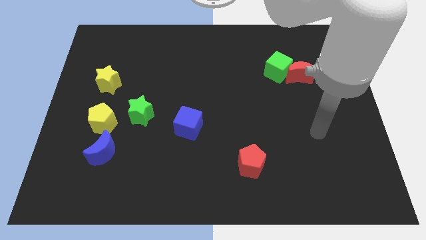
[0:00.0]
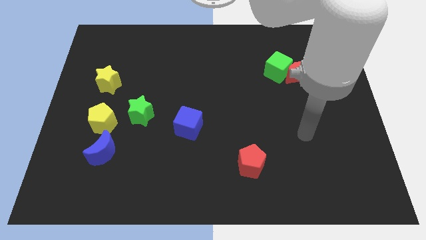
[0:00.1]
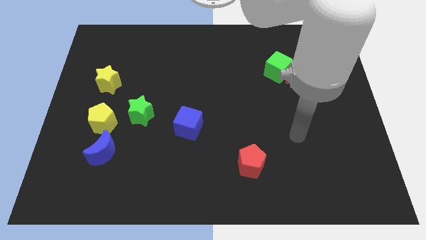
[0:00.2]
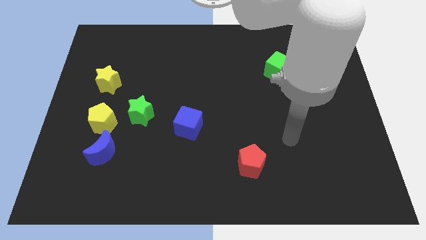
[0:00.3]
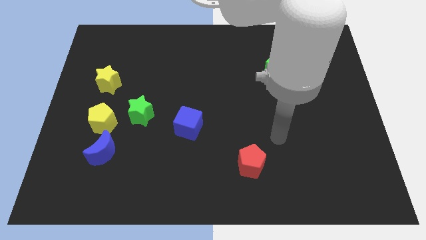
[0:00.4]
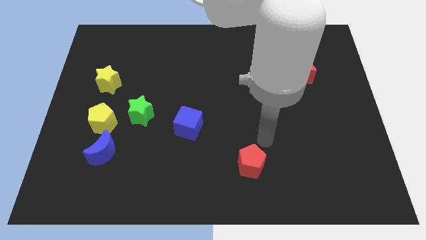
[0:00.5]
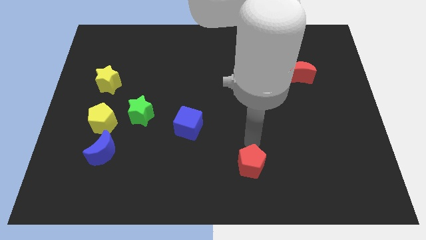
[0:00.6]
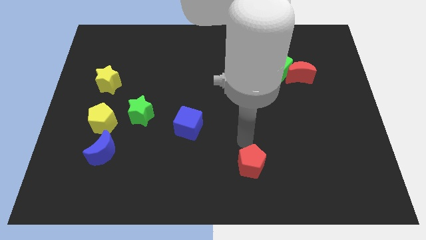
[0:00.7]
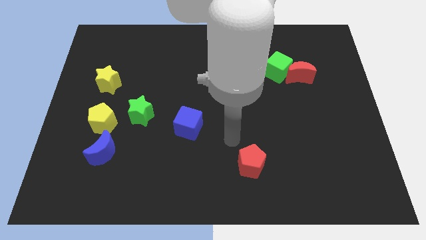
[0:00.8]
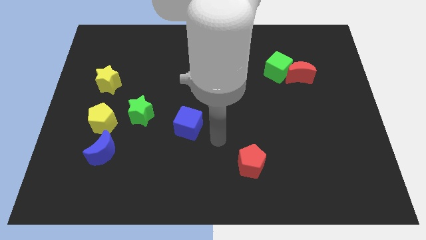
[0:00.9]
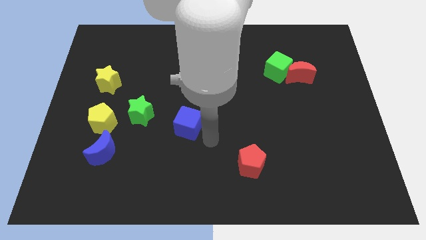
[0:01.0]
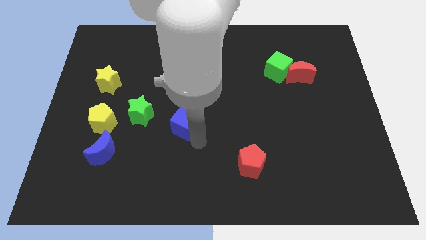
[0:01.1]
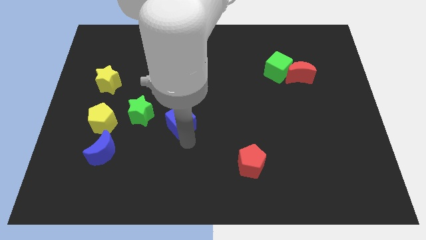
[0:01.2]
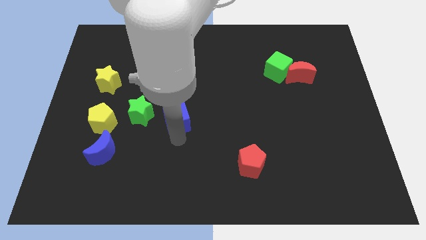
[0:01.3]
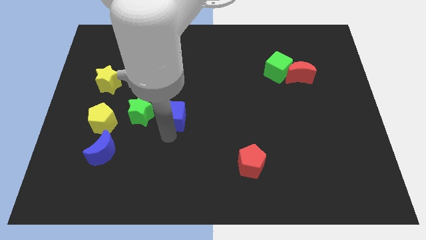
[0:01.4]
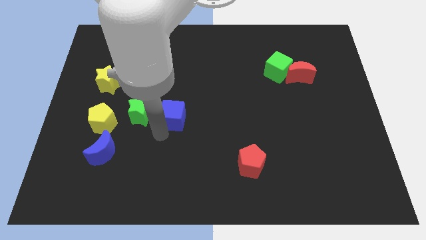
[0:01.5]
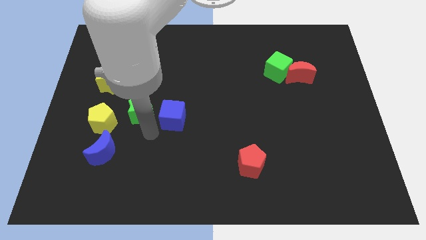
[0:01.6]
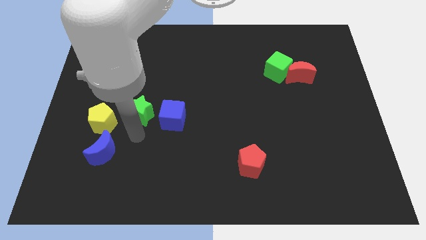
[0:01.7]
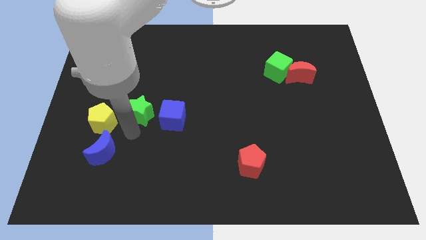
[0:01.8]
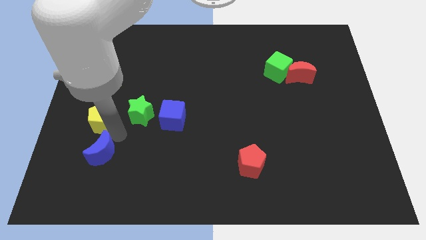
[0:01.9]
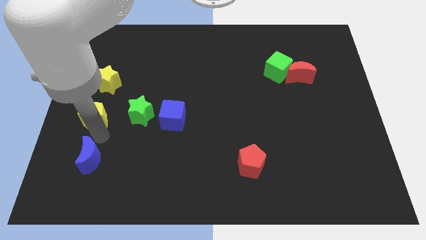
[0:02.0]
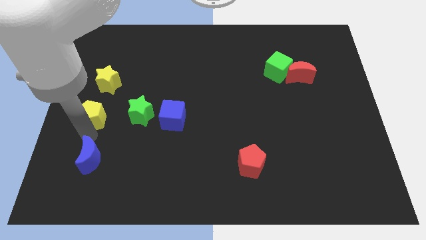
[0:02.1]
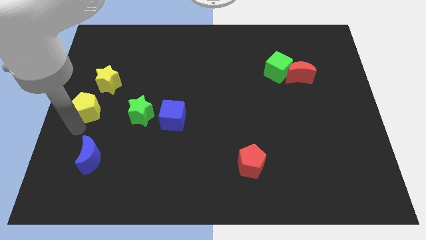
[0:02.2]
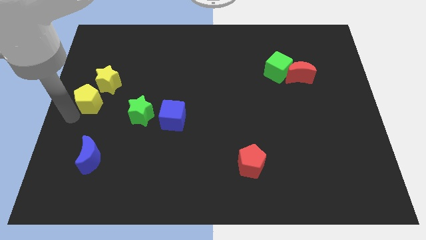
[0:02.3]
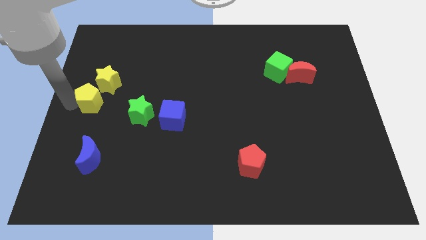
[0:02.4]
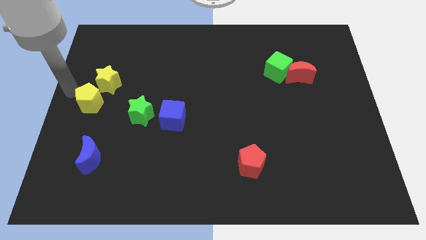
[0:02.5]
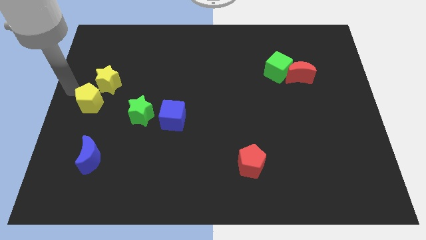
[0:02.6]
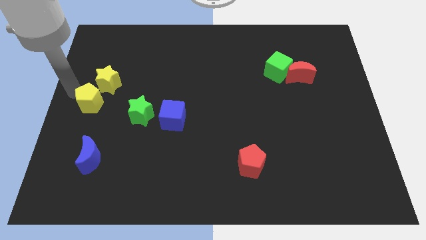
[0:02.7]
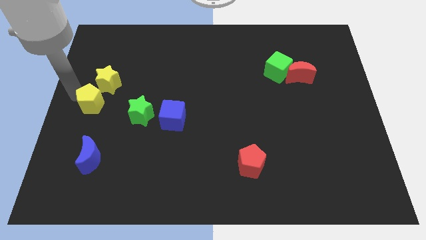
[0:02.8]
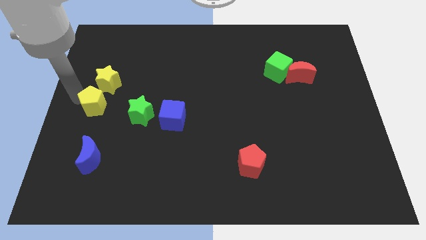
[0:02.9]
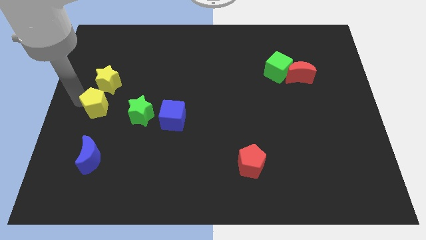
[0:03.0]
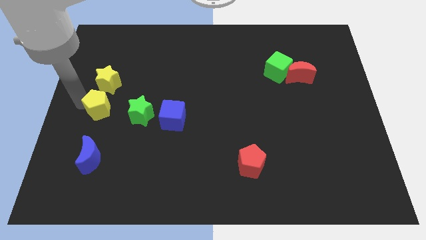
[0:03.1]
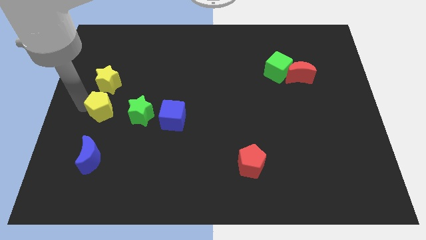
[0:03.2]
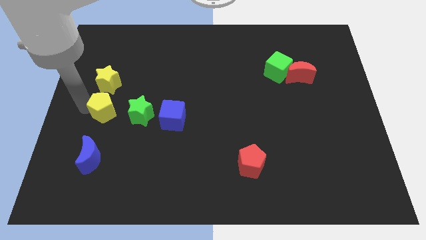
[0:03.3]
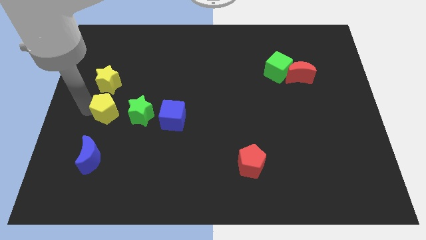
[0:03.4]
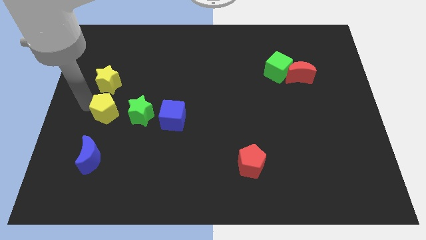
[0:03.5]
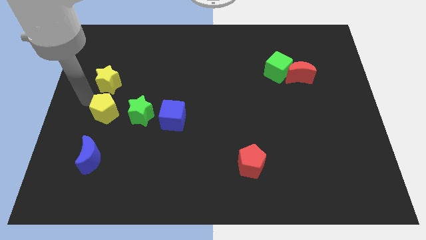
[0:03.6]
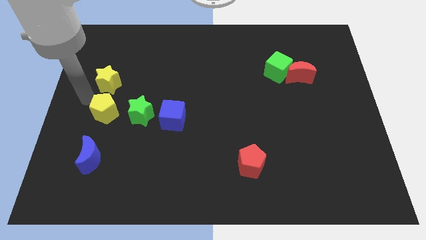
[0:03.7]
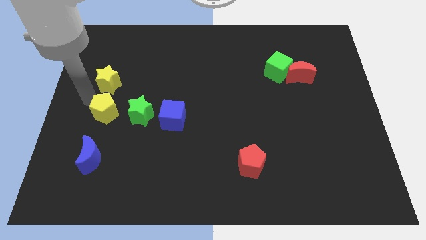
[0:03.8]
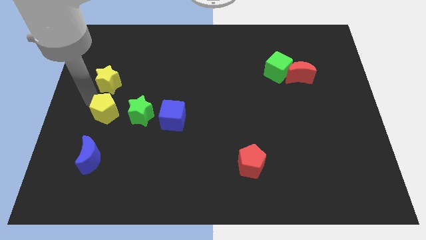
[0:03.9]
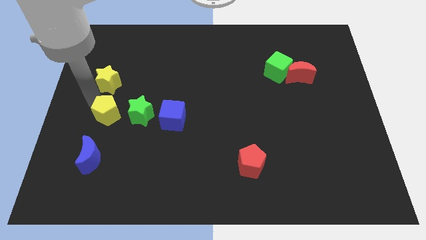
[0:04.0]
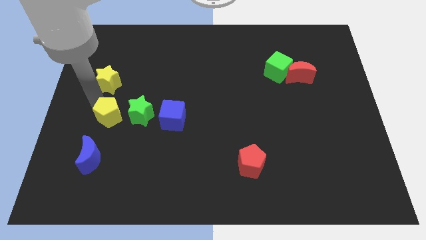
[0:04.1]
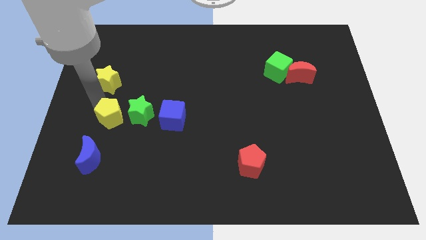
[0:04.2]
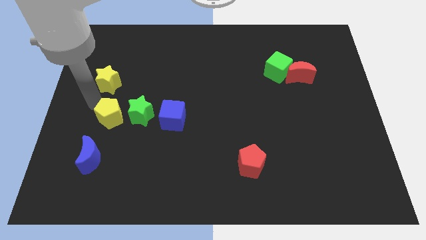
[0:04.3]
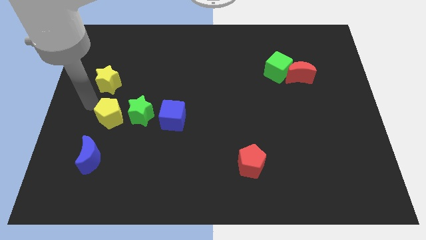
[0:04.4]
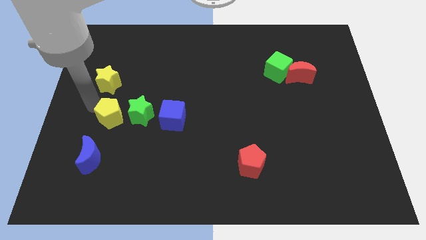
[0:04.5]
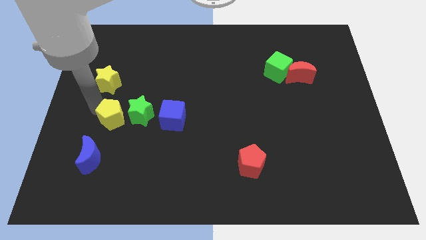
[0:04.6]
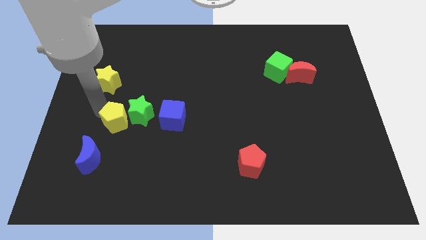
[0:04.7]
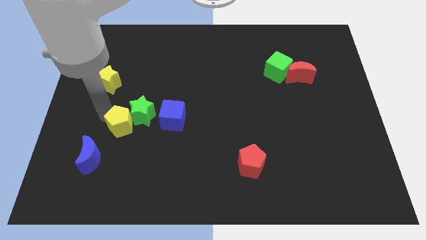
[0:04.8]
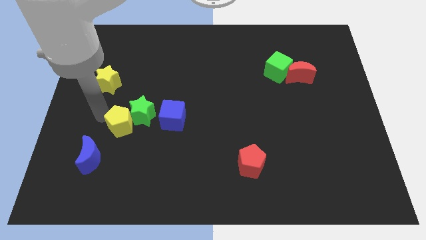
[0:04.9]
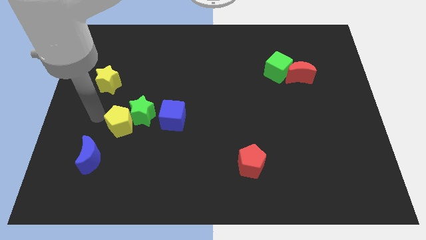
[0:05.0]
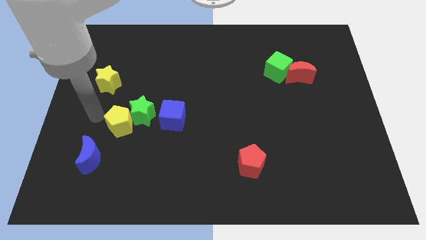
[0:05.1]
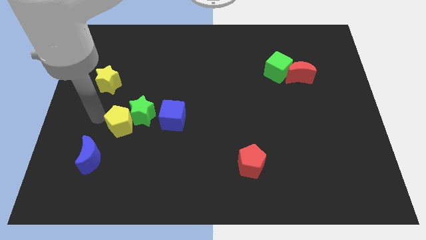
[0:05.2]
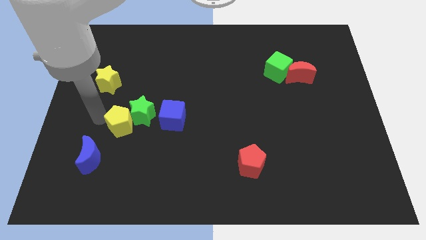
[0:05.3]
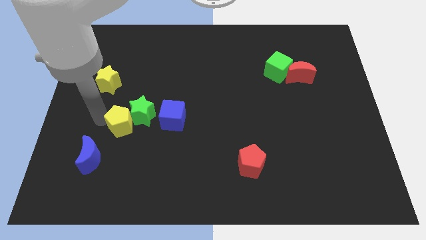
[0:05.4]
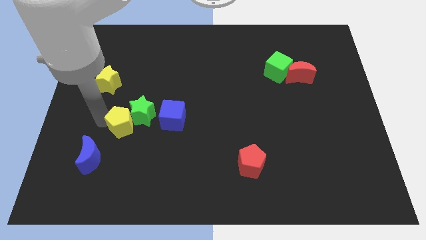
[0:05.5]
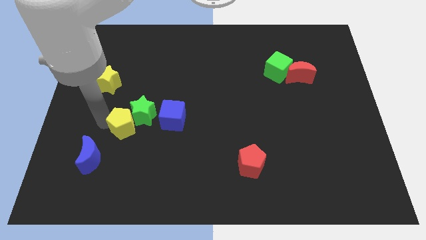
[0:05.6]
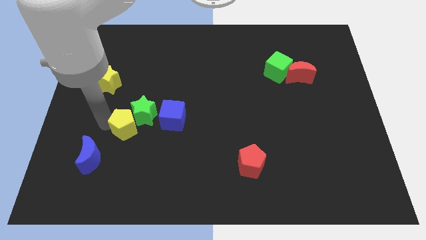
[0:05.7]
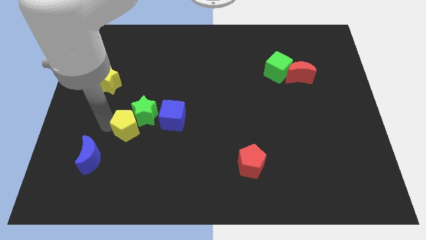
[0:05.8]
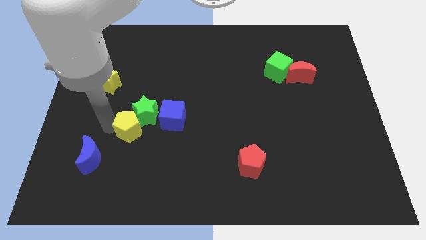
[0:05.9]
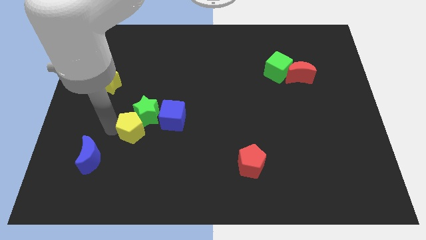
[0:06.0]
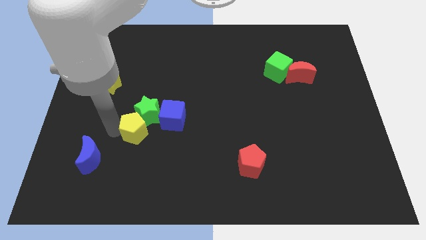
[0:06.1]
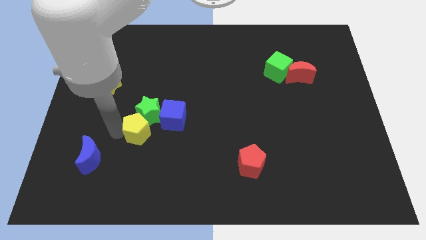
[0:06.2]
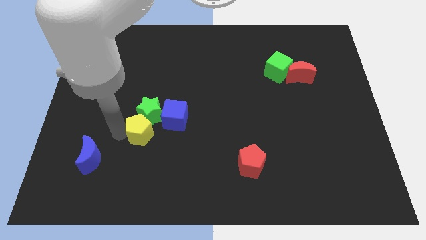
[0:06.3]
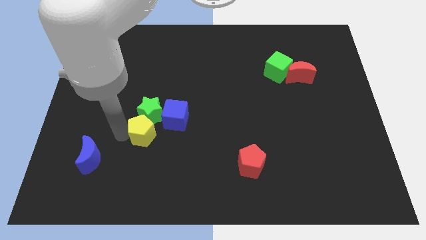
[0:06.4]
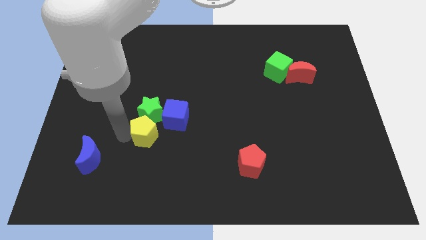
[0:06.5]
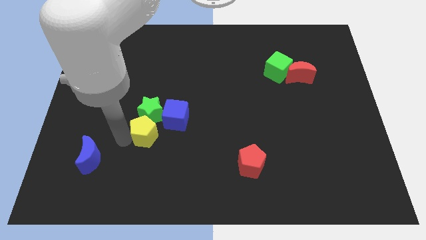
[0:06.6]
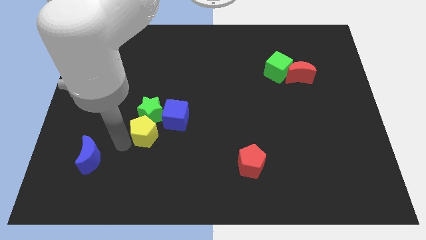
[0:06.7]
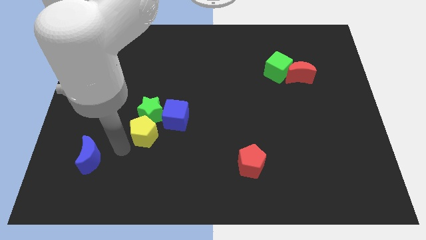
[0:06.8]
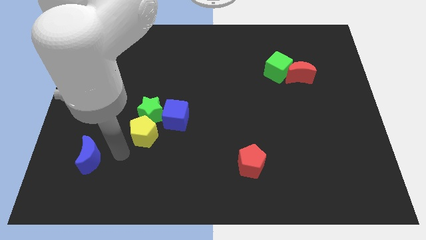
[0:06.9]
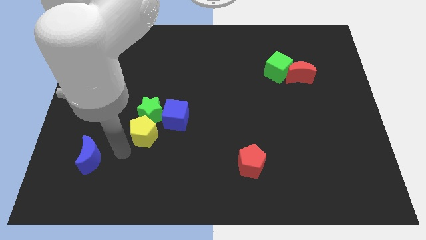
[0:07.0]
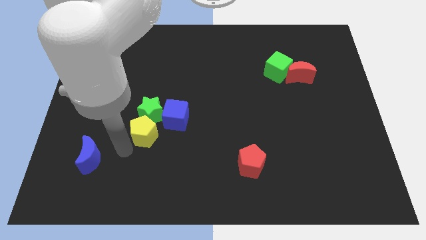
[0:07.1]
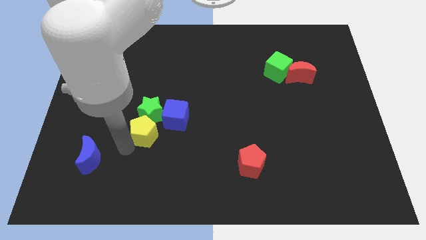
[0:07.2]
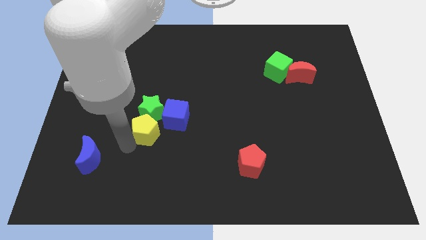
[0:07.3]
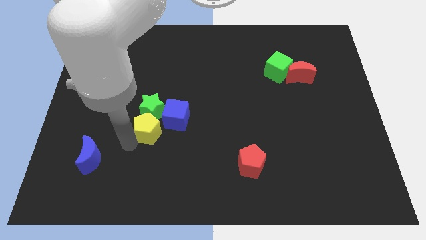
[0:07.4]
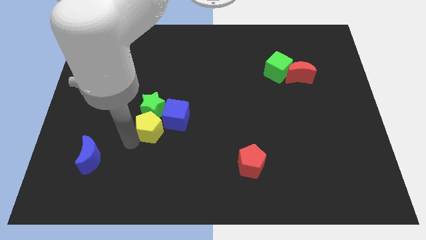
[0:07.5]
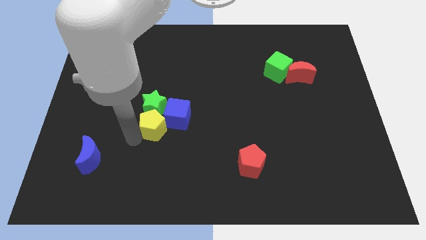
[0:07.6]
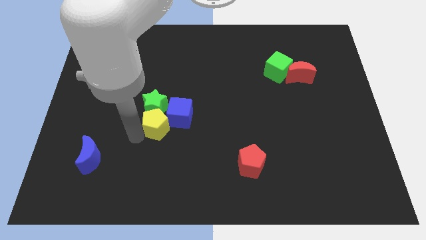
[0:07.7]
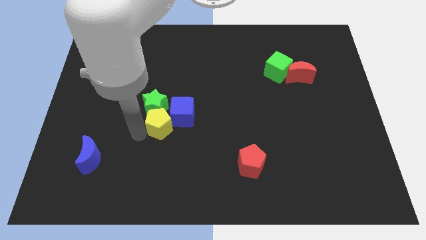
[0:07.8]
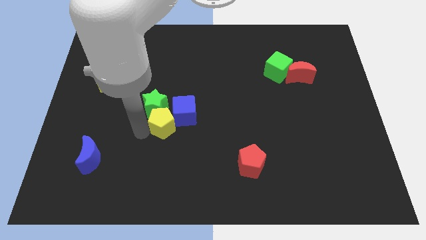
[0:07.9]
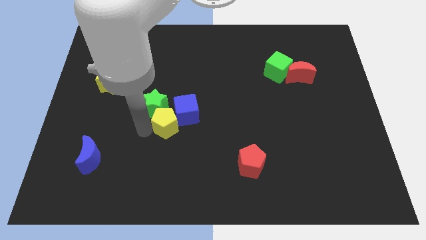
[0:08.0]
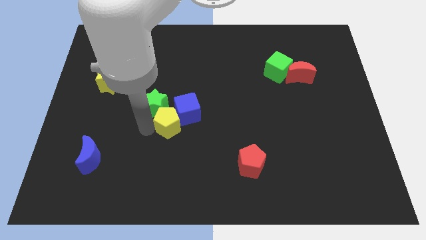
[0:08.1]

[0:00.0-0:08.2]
move the yellow pentagon to the center of the board
